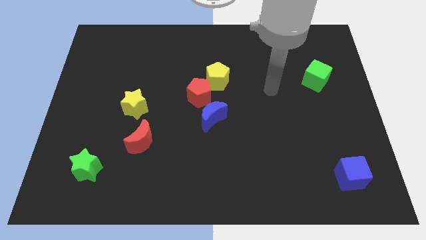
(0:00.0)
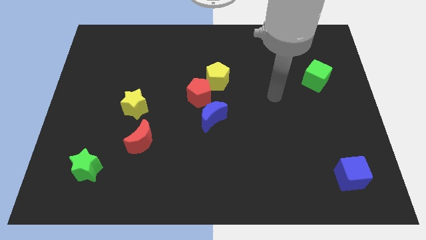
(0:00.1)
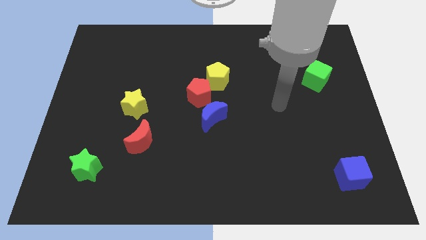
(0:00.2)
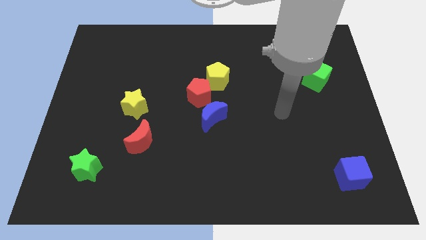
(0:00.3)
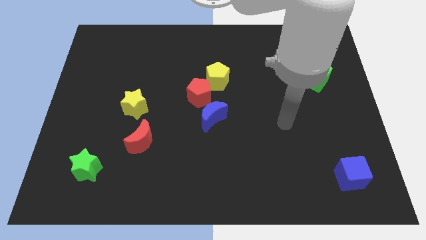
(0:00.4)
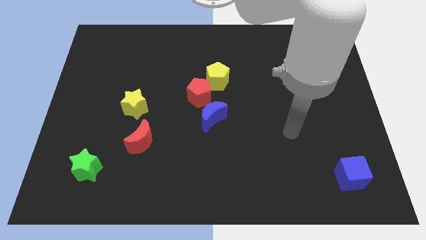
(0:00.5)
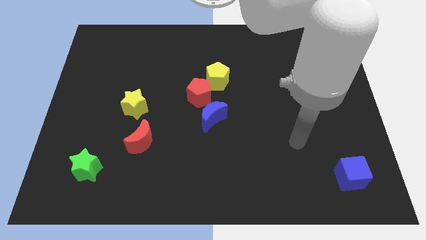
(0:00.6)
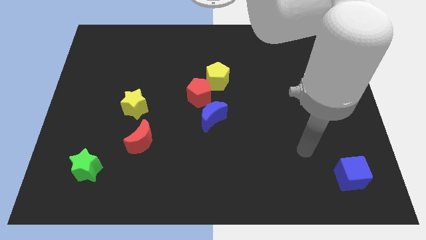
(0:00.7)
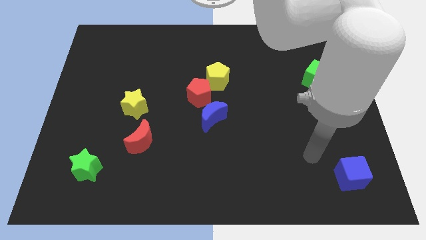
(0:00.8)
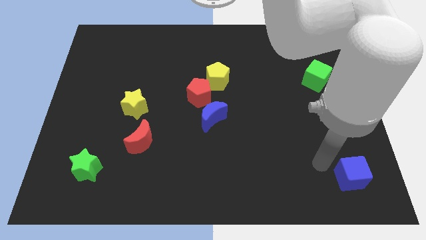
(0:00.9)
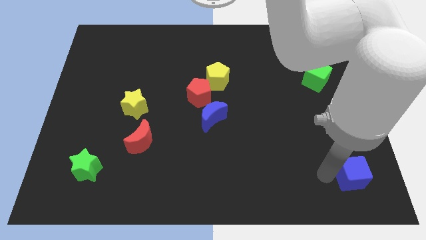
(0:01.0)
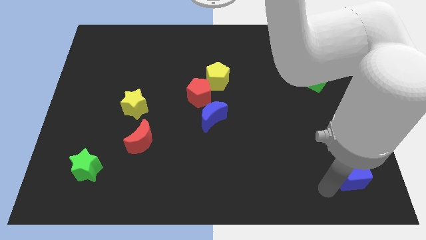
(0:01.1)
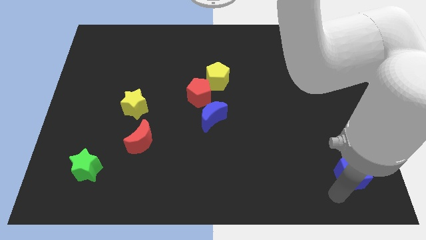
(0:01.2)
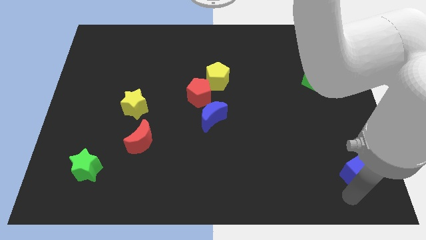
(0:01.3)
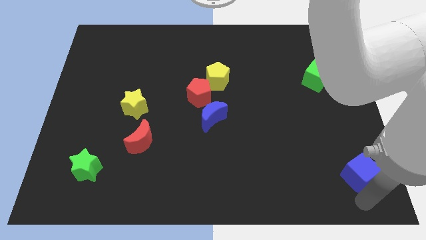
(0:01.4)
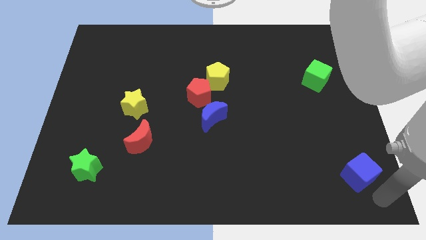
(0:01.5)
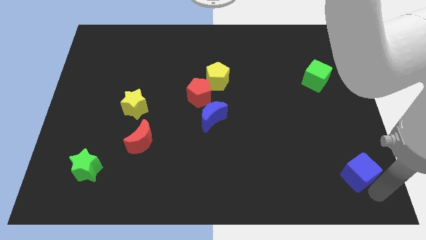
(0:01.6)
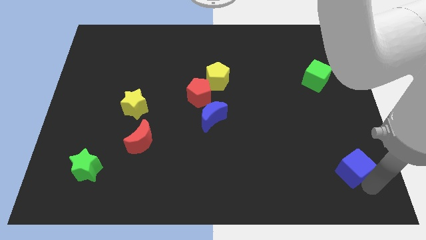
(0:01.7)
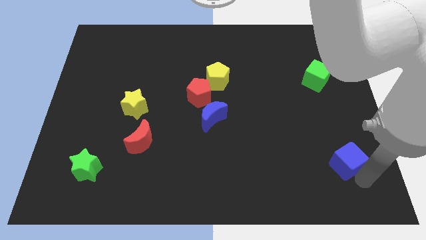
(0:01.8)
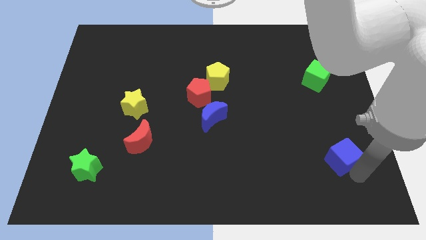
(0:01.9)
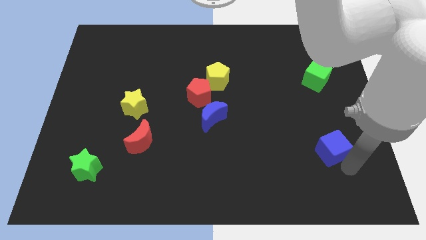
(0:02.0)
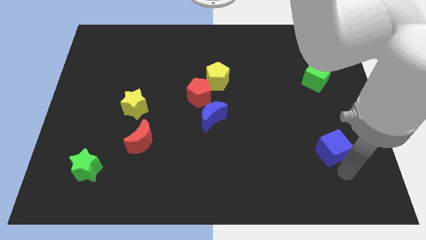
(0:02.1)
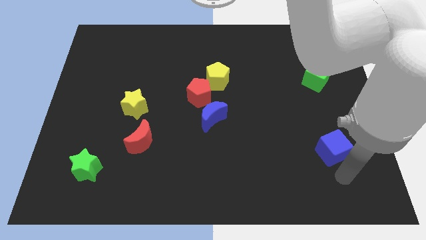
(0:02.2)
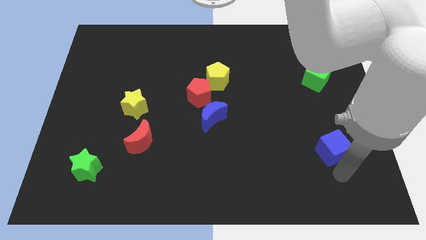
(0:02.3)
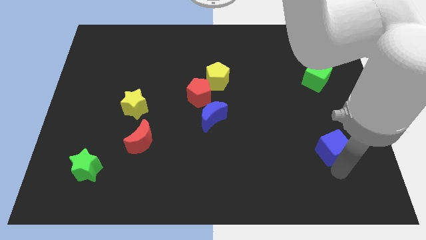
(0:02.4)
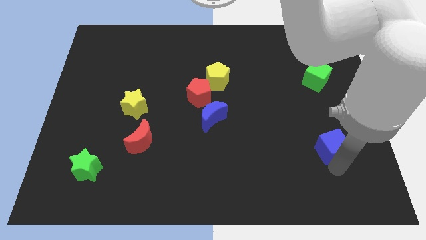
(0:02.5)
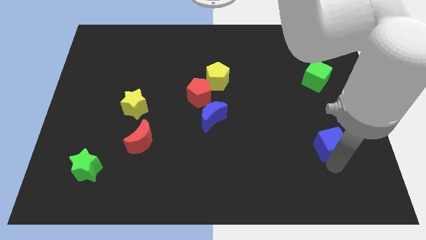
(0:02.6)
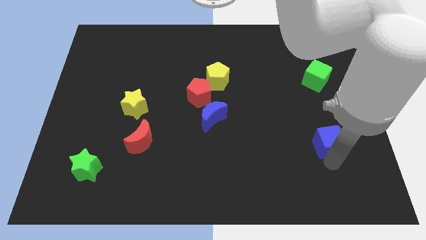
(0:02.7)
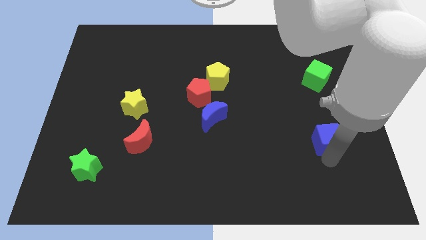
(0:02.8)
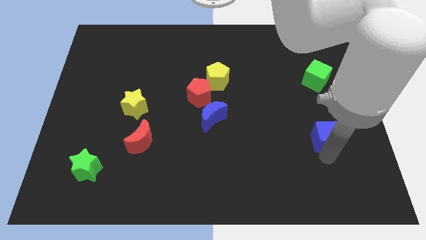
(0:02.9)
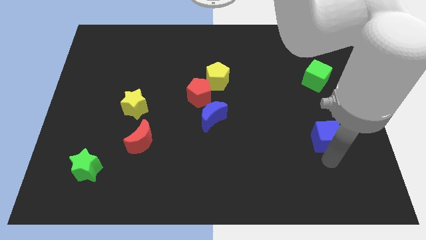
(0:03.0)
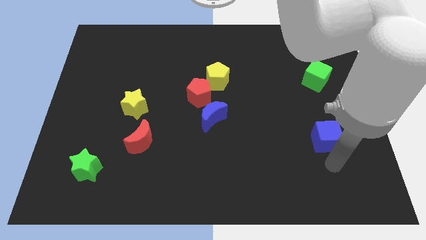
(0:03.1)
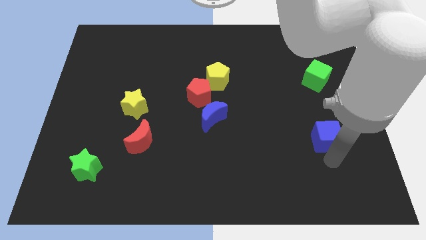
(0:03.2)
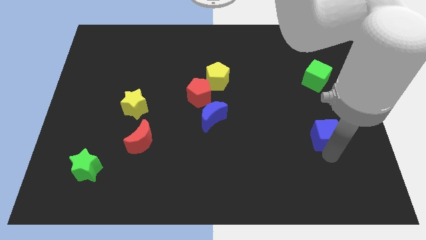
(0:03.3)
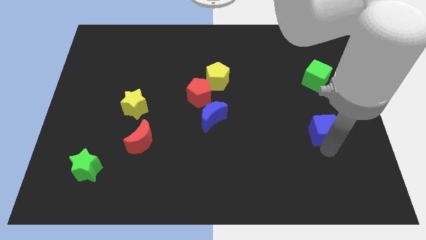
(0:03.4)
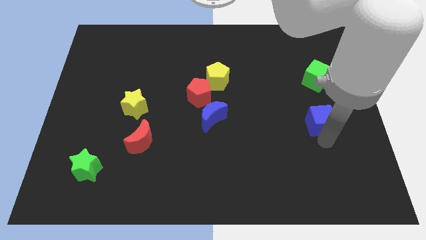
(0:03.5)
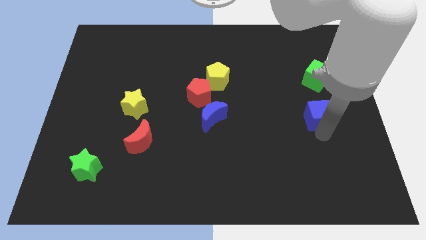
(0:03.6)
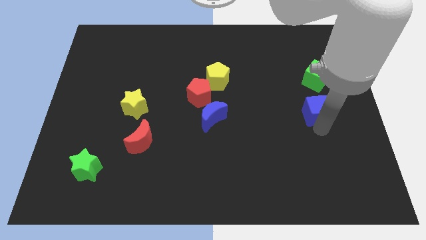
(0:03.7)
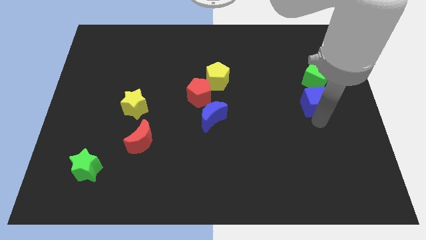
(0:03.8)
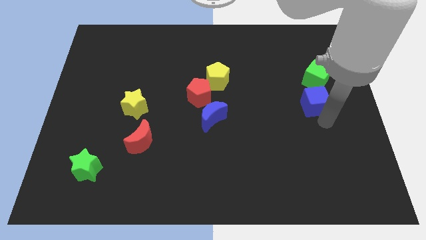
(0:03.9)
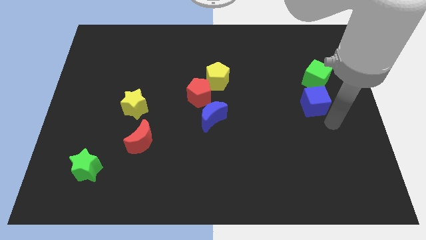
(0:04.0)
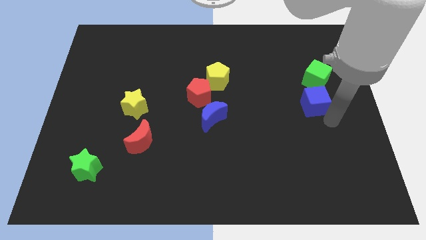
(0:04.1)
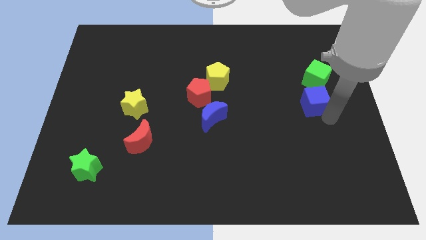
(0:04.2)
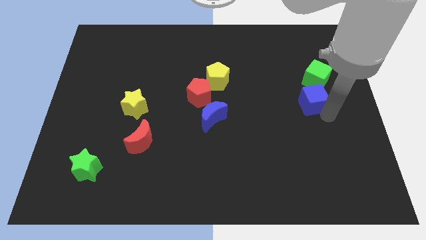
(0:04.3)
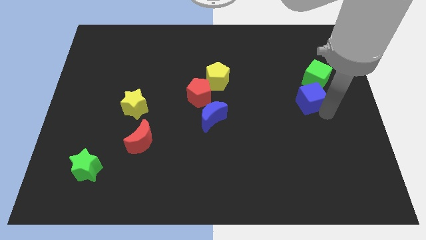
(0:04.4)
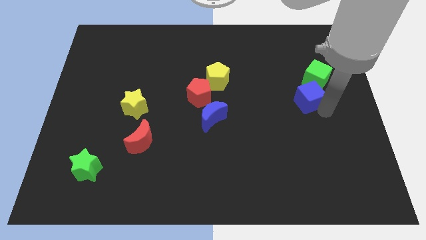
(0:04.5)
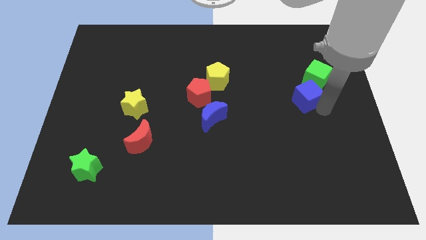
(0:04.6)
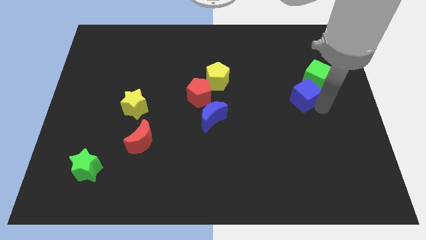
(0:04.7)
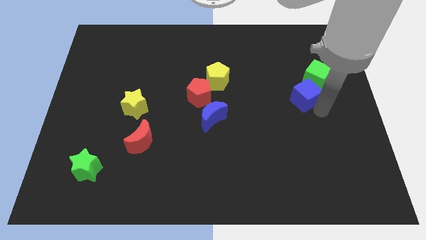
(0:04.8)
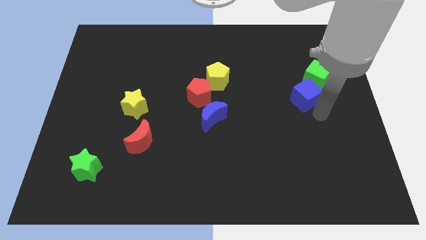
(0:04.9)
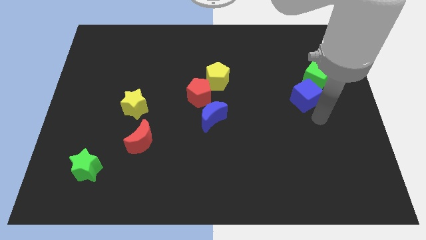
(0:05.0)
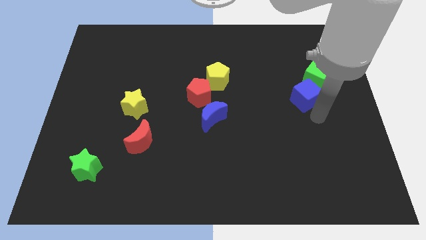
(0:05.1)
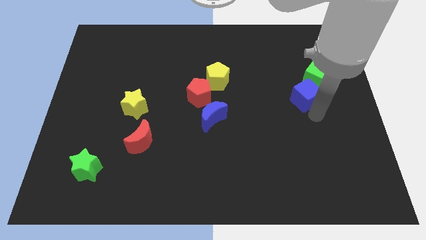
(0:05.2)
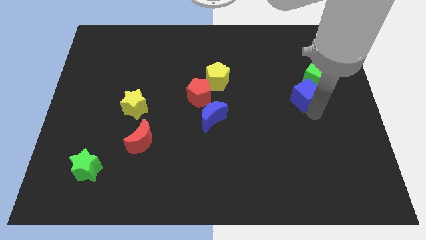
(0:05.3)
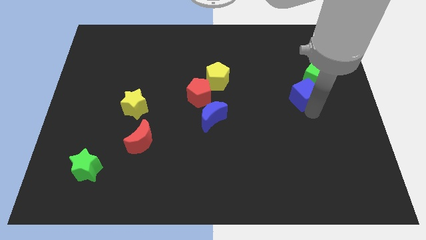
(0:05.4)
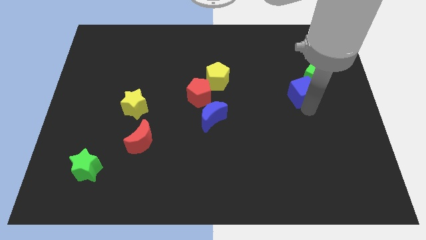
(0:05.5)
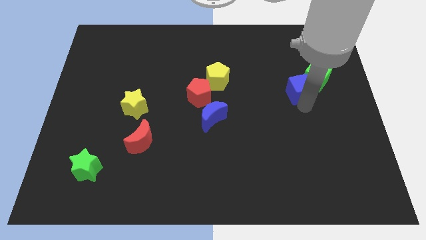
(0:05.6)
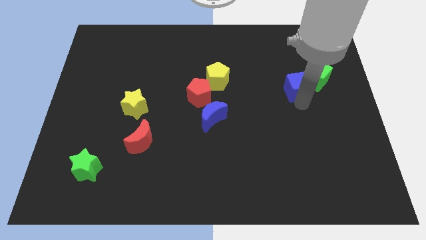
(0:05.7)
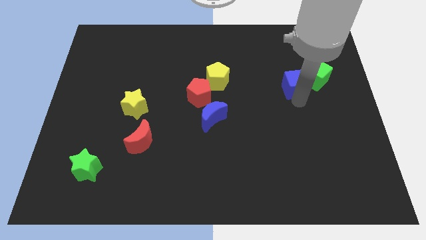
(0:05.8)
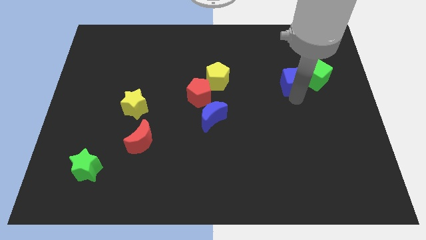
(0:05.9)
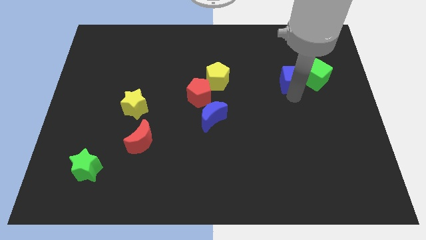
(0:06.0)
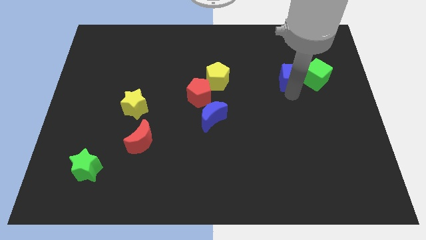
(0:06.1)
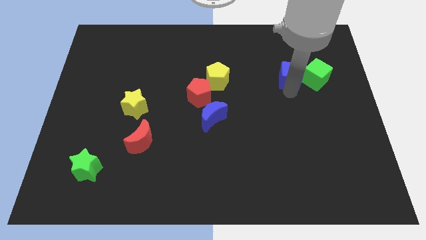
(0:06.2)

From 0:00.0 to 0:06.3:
move the blue cube to the top left side of the green cube
